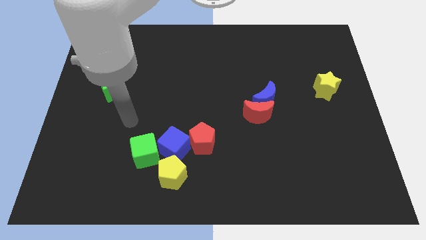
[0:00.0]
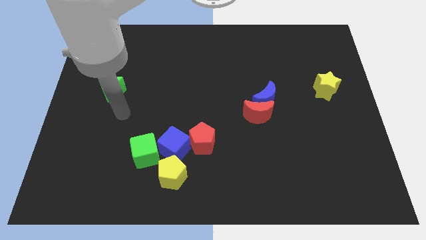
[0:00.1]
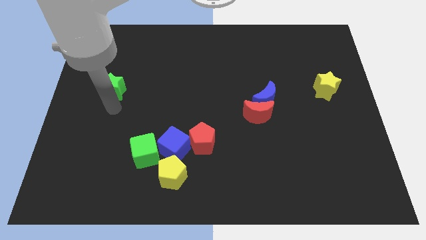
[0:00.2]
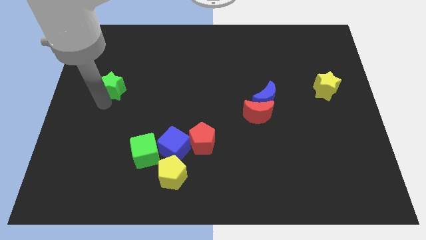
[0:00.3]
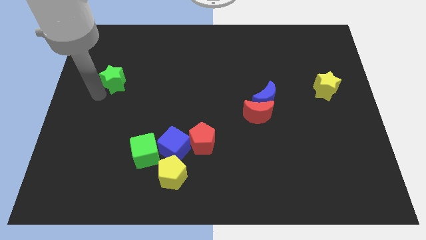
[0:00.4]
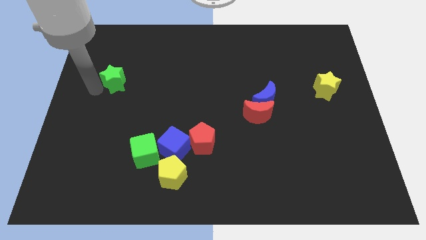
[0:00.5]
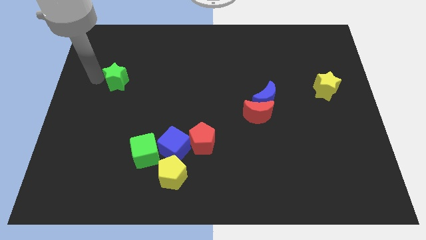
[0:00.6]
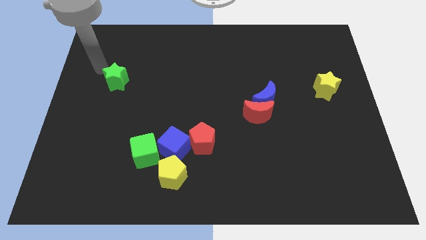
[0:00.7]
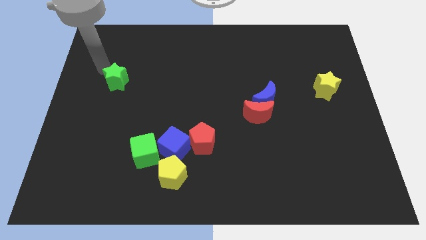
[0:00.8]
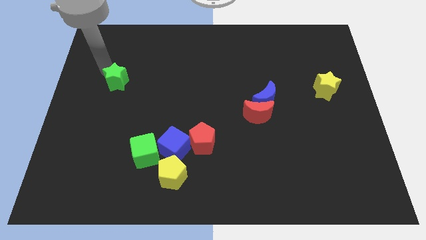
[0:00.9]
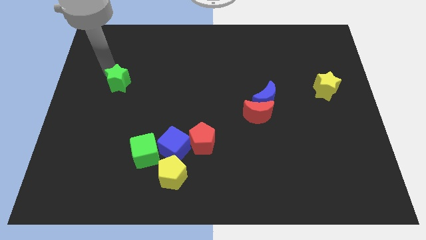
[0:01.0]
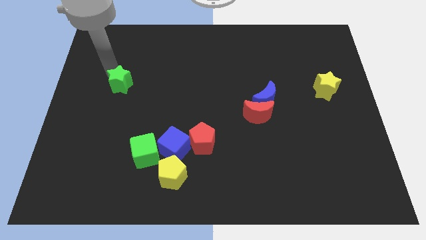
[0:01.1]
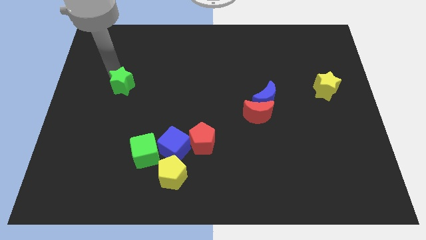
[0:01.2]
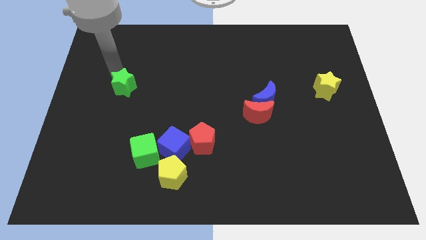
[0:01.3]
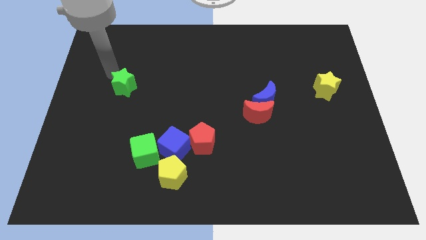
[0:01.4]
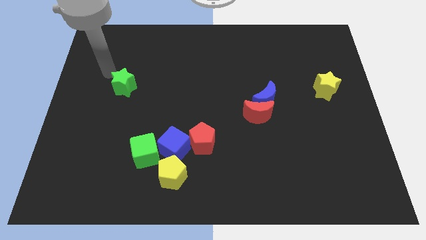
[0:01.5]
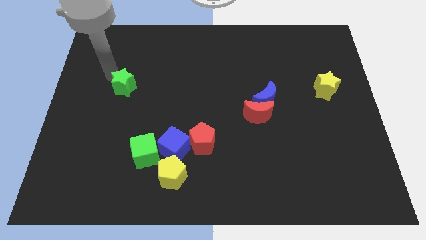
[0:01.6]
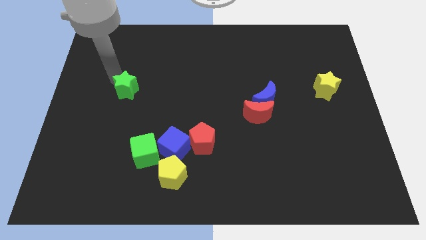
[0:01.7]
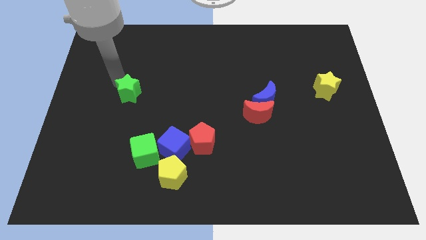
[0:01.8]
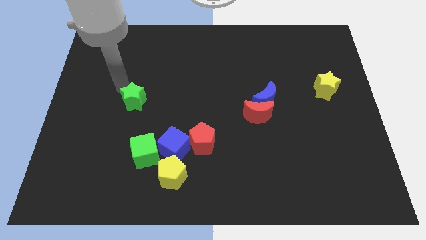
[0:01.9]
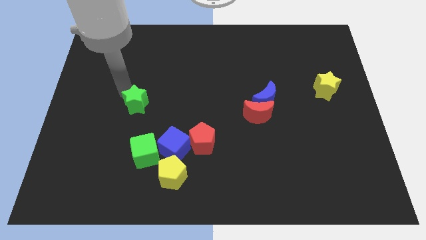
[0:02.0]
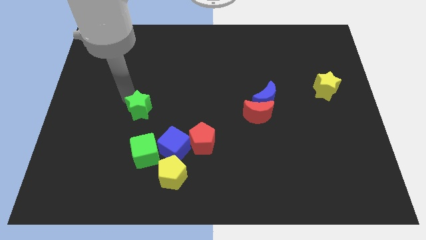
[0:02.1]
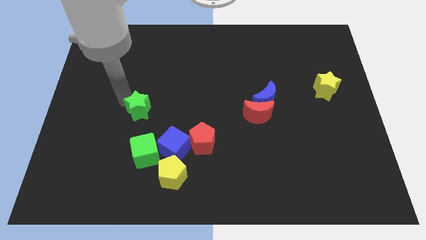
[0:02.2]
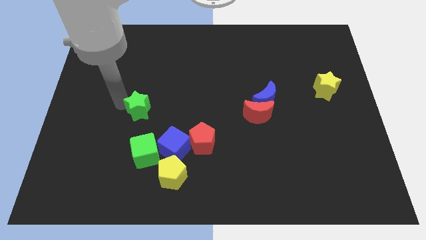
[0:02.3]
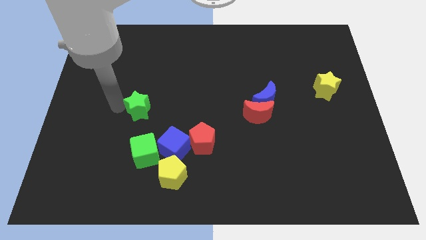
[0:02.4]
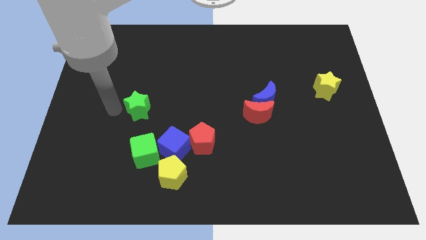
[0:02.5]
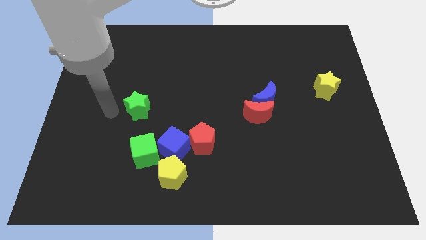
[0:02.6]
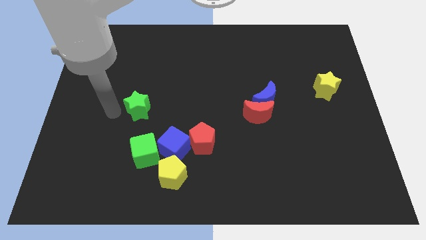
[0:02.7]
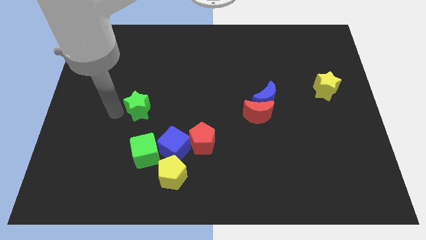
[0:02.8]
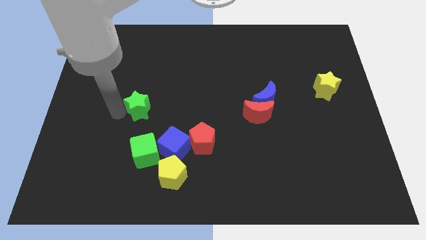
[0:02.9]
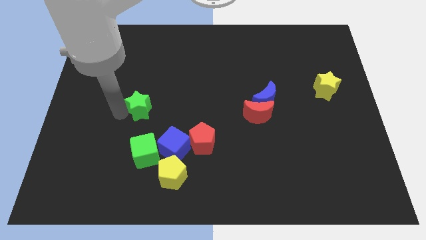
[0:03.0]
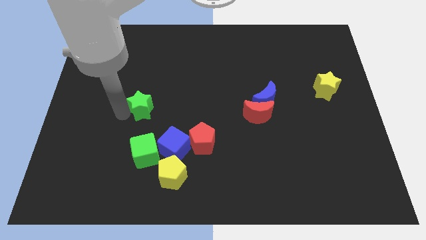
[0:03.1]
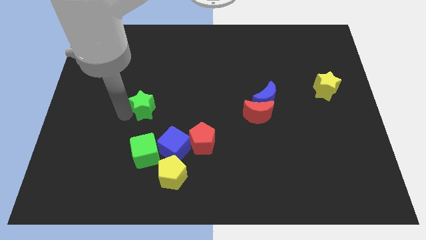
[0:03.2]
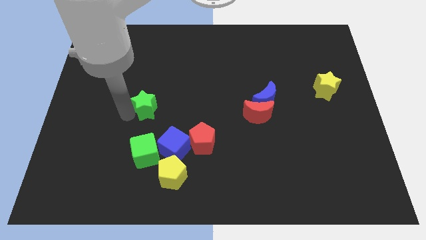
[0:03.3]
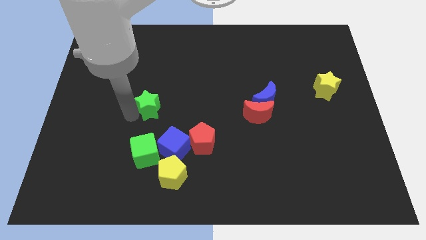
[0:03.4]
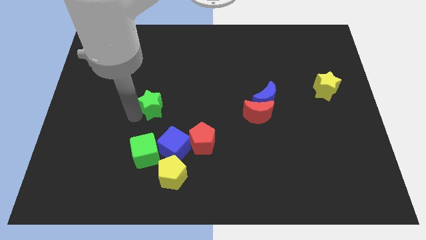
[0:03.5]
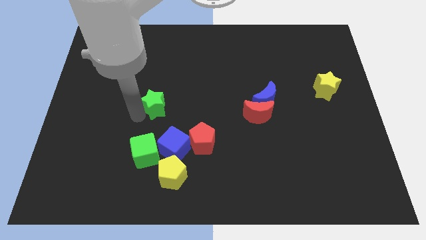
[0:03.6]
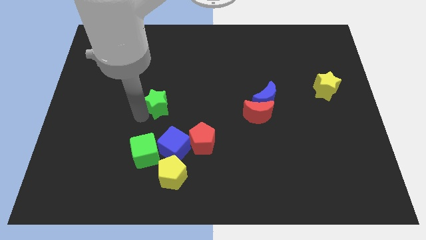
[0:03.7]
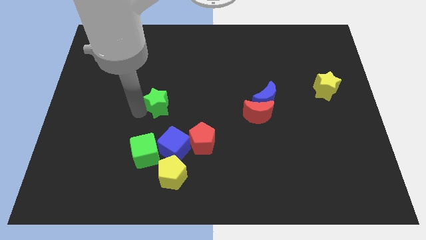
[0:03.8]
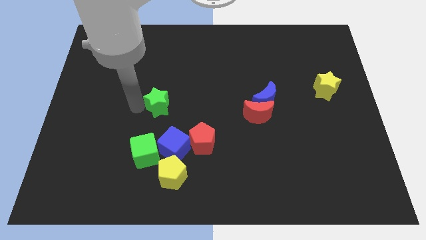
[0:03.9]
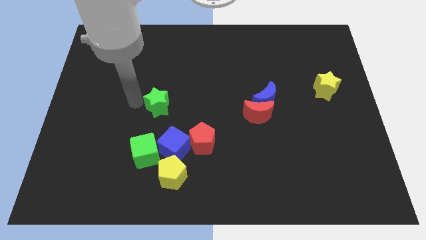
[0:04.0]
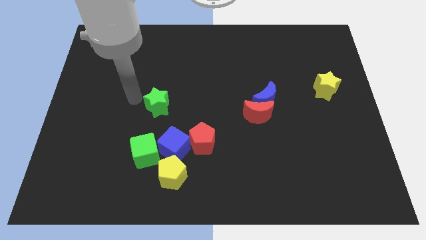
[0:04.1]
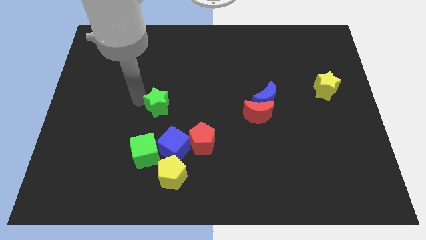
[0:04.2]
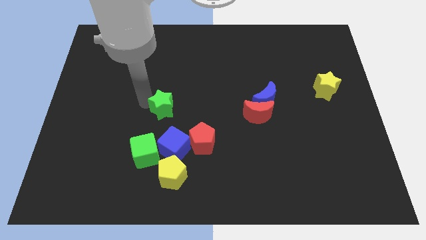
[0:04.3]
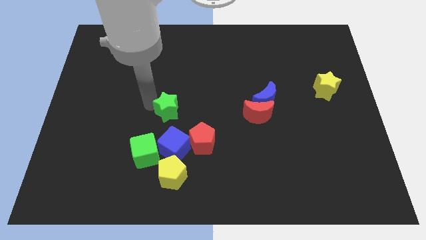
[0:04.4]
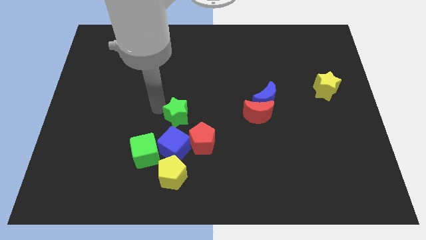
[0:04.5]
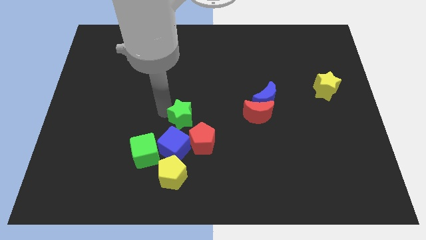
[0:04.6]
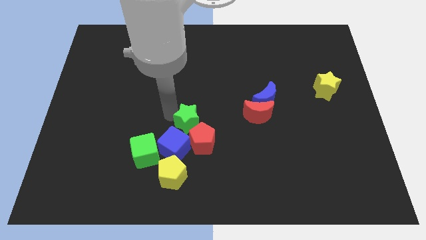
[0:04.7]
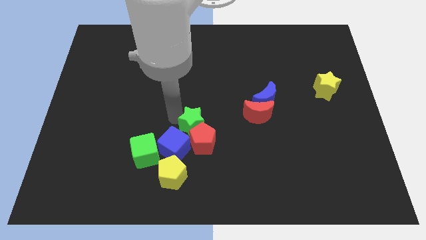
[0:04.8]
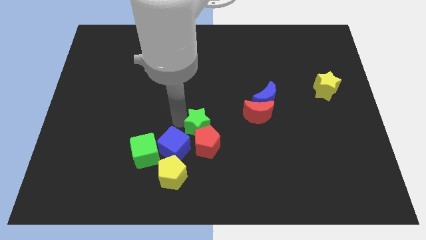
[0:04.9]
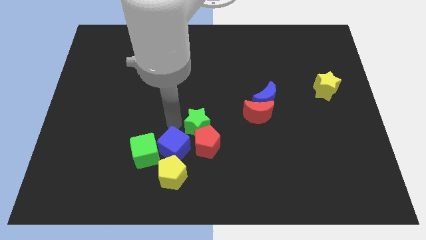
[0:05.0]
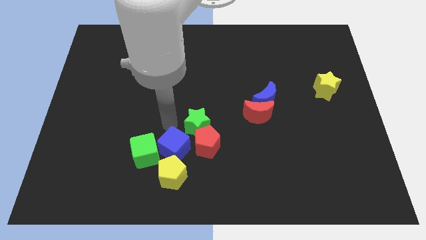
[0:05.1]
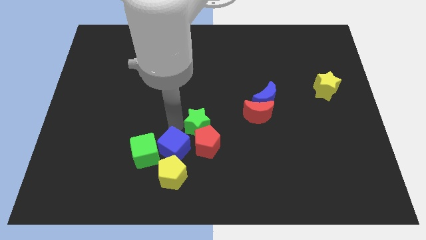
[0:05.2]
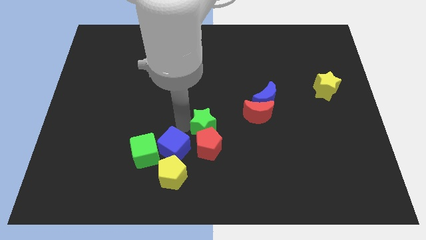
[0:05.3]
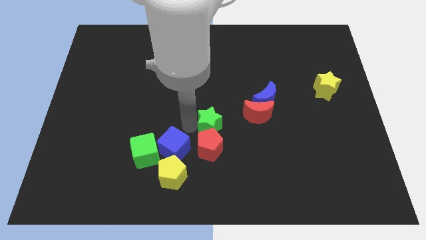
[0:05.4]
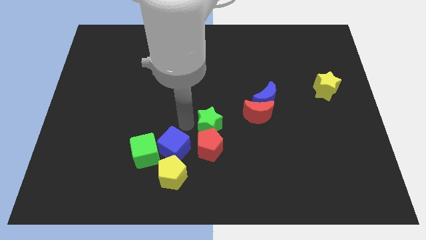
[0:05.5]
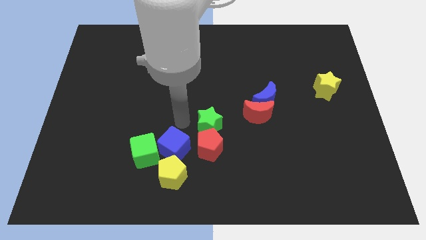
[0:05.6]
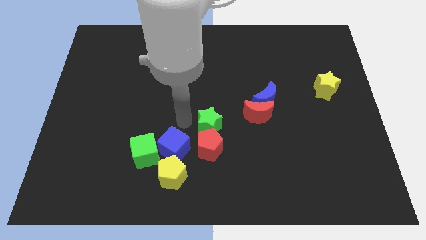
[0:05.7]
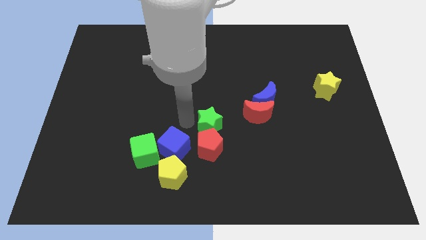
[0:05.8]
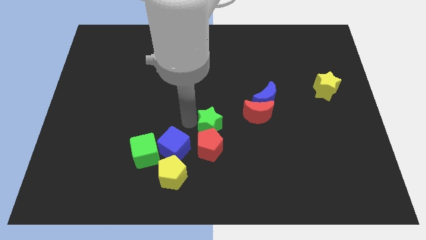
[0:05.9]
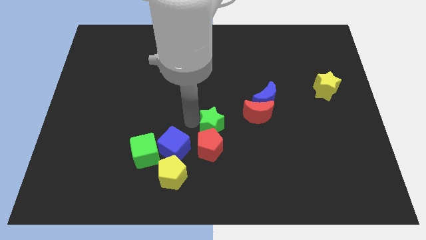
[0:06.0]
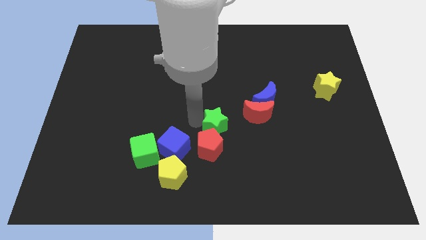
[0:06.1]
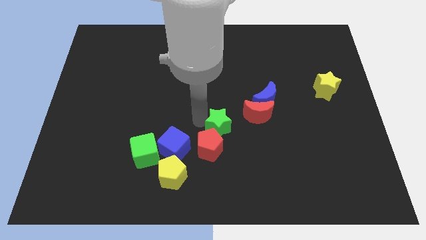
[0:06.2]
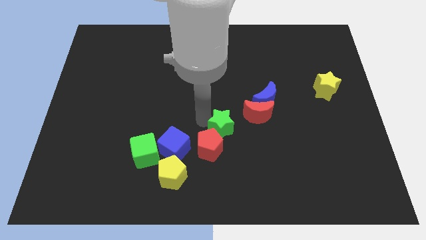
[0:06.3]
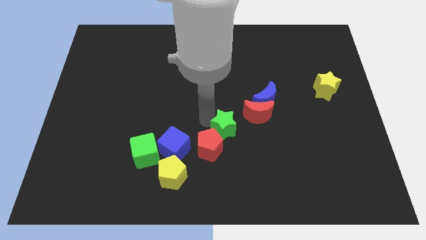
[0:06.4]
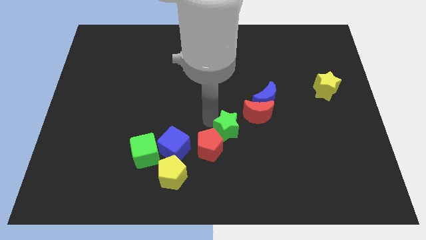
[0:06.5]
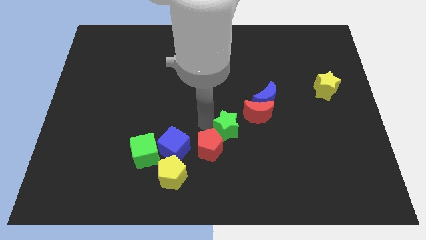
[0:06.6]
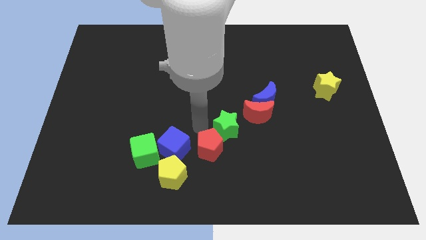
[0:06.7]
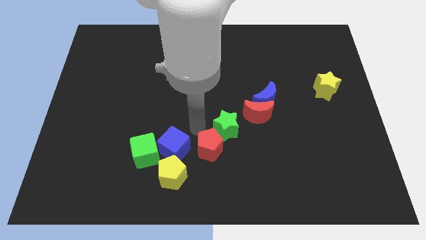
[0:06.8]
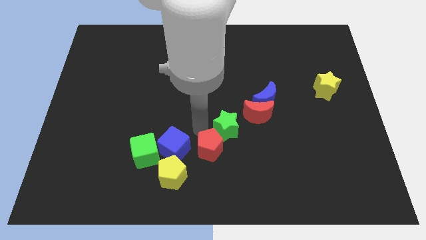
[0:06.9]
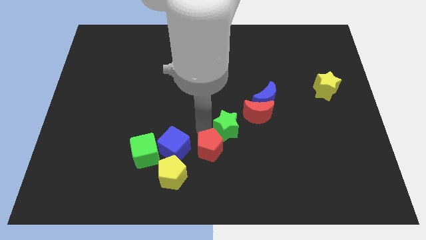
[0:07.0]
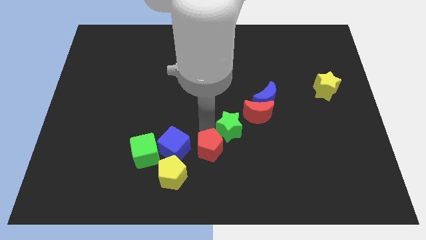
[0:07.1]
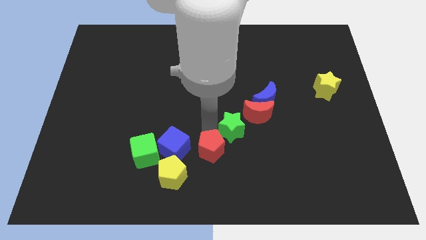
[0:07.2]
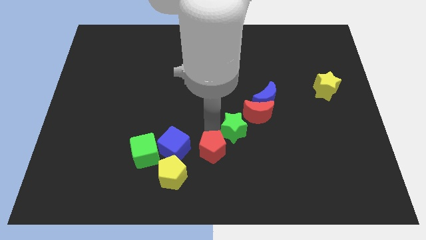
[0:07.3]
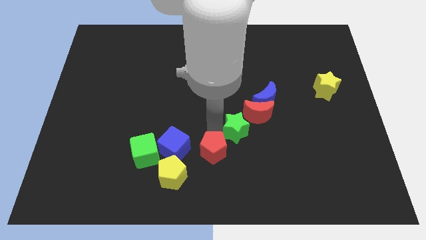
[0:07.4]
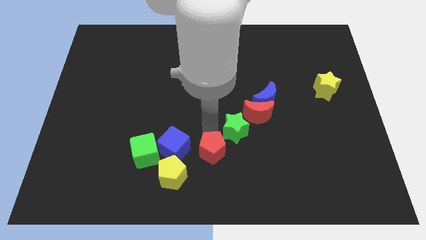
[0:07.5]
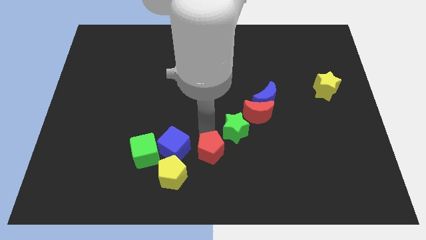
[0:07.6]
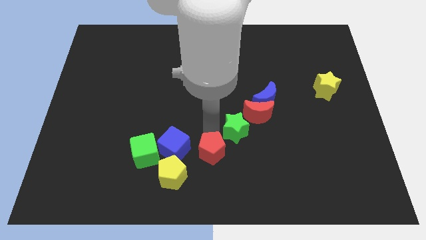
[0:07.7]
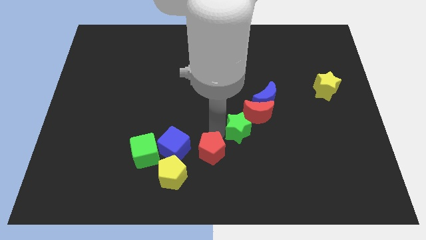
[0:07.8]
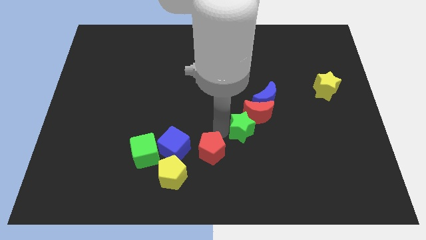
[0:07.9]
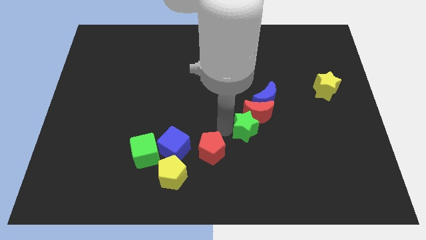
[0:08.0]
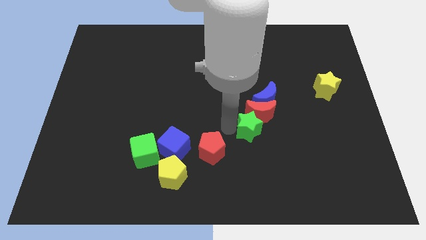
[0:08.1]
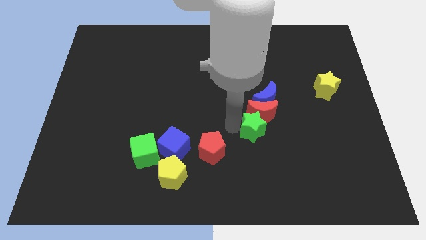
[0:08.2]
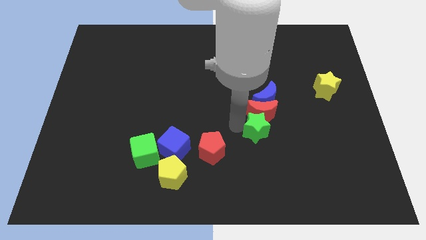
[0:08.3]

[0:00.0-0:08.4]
move the green star to the bottom right of the red moon
